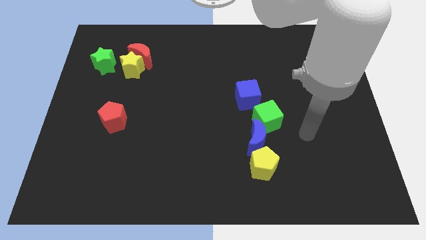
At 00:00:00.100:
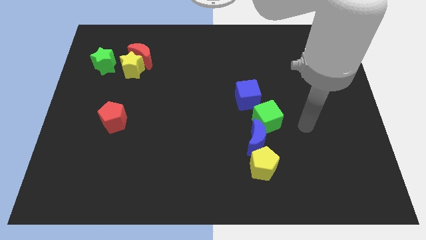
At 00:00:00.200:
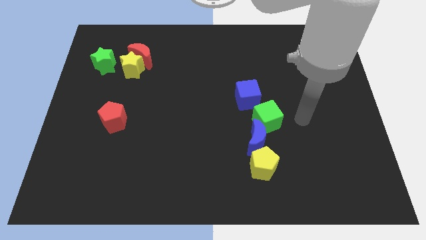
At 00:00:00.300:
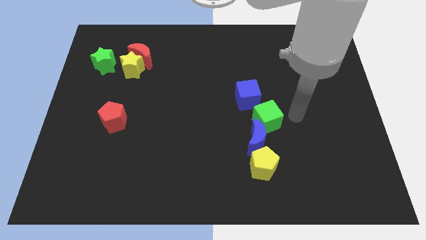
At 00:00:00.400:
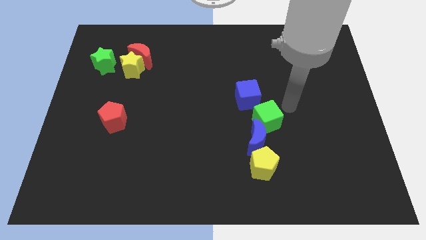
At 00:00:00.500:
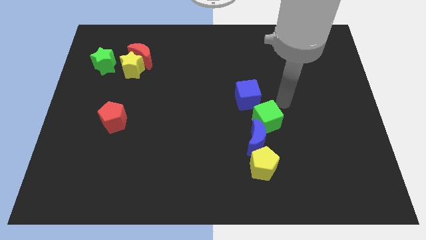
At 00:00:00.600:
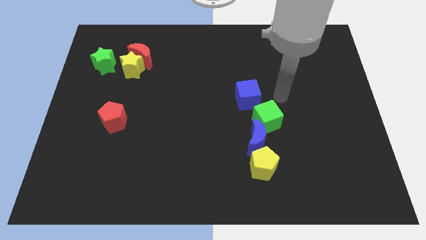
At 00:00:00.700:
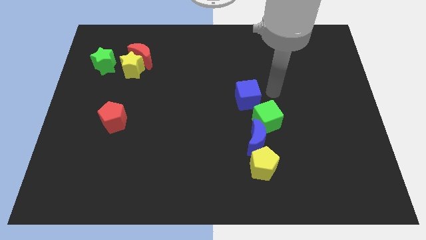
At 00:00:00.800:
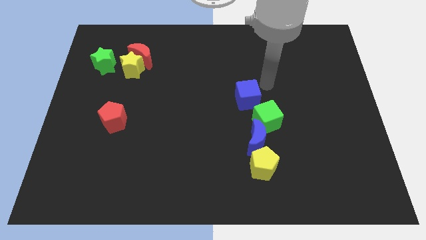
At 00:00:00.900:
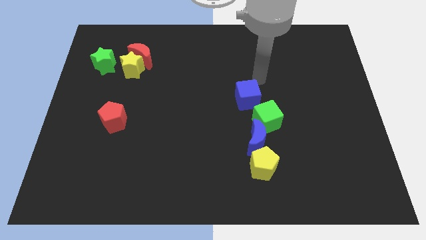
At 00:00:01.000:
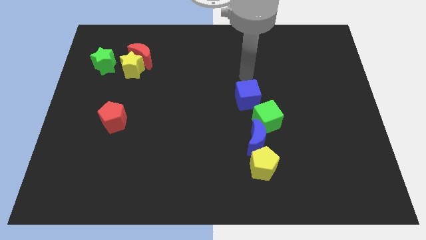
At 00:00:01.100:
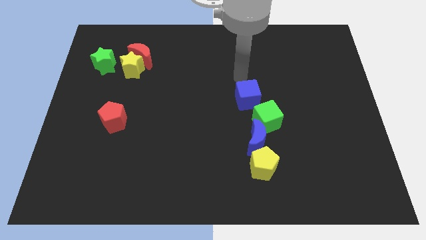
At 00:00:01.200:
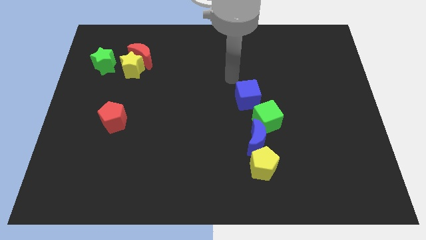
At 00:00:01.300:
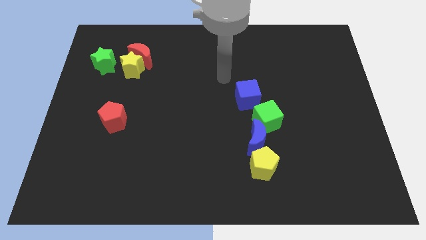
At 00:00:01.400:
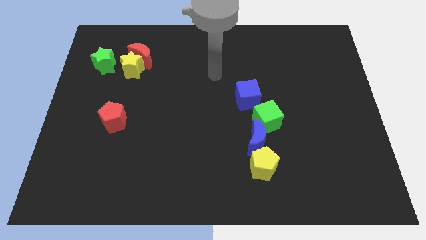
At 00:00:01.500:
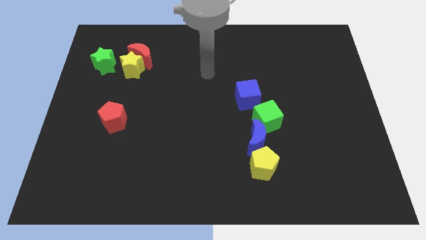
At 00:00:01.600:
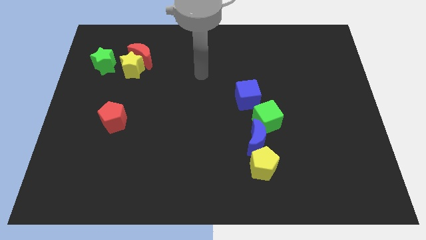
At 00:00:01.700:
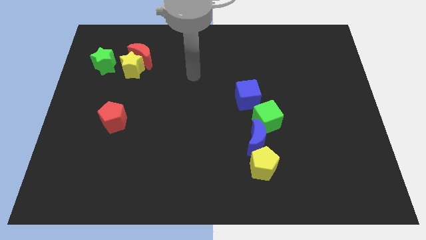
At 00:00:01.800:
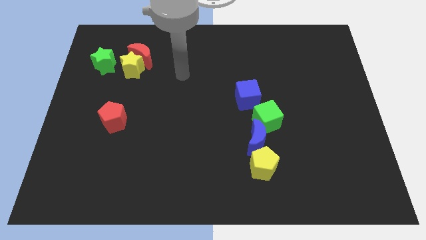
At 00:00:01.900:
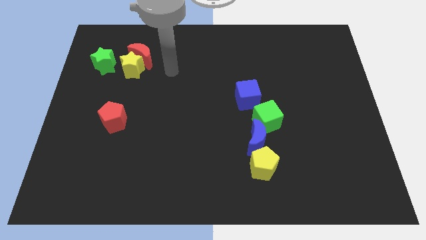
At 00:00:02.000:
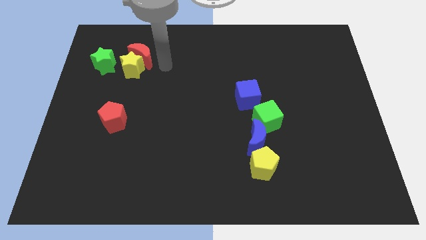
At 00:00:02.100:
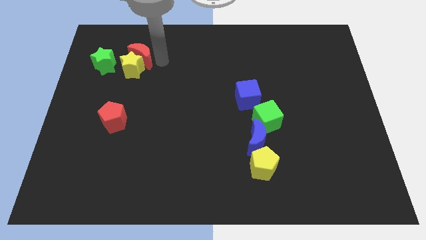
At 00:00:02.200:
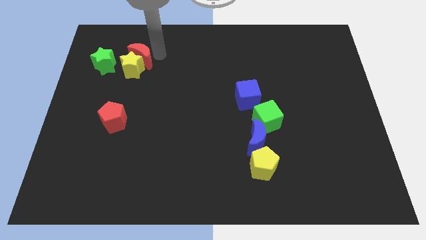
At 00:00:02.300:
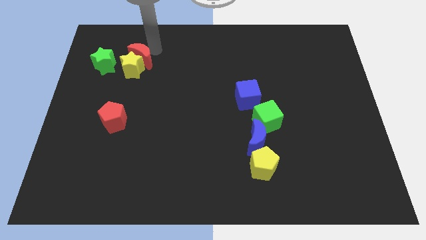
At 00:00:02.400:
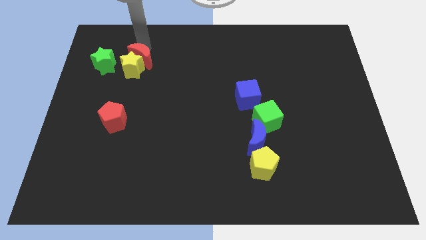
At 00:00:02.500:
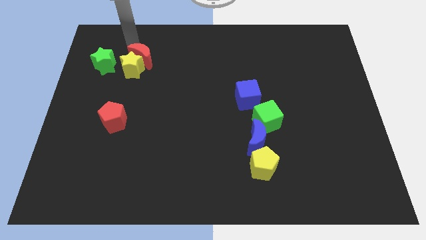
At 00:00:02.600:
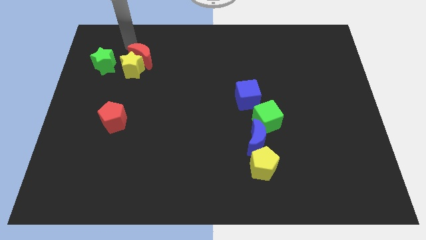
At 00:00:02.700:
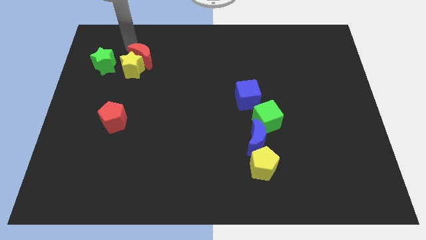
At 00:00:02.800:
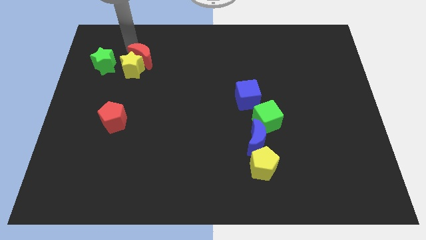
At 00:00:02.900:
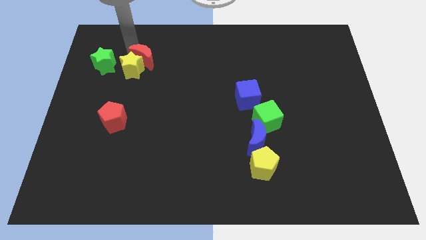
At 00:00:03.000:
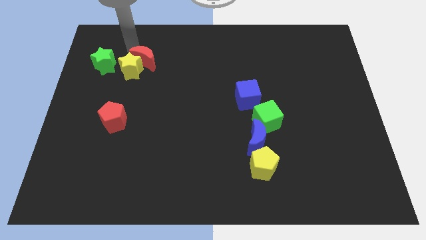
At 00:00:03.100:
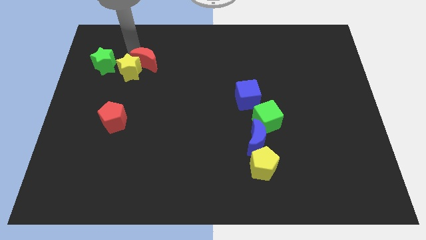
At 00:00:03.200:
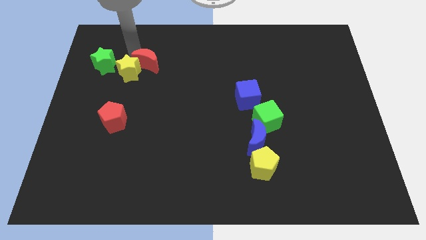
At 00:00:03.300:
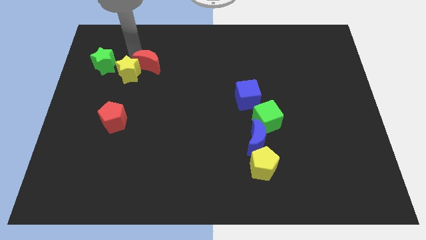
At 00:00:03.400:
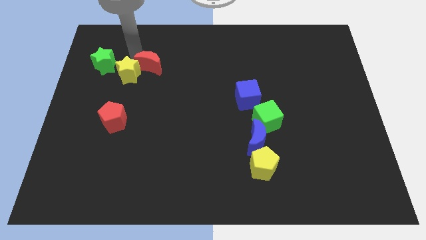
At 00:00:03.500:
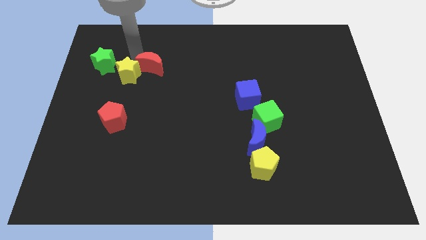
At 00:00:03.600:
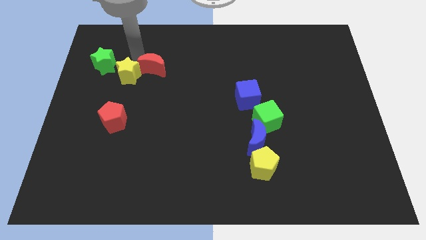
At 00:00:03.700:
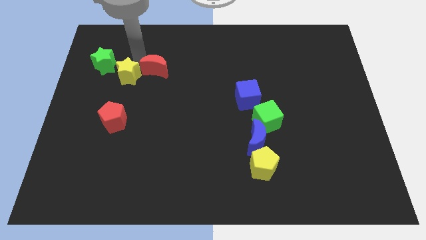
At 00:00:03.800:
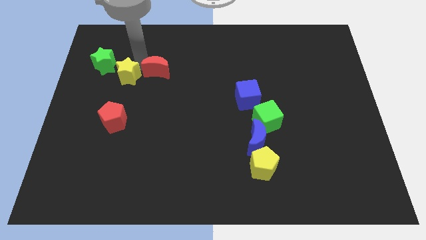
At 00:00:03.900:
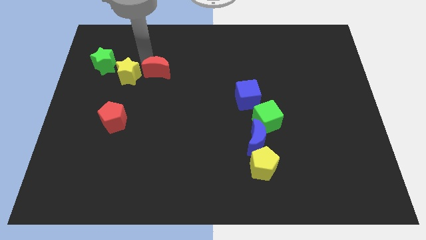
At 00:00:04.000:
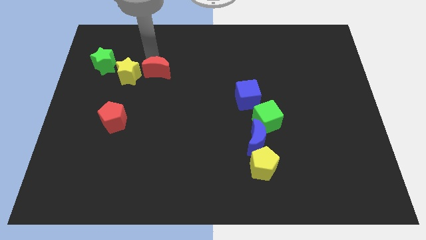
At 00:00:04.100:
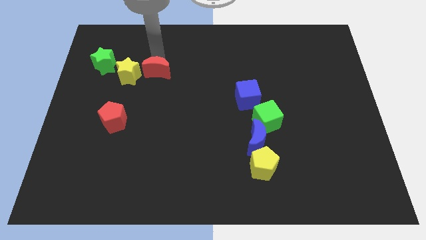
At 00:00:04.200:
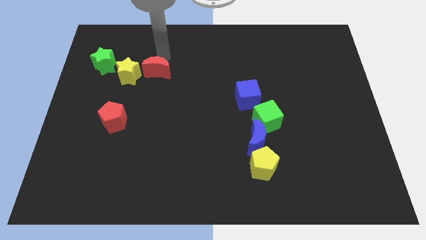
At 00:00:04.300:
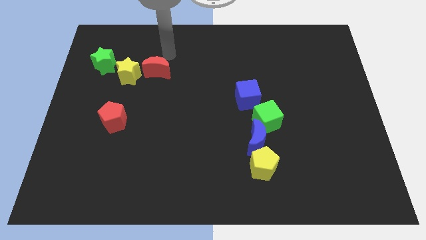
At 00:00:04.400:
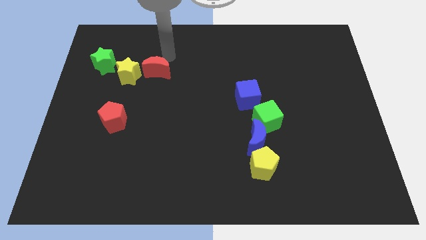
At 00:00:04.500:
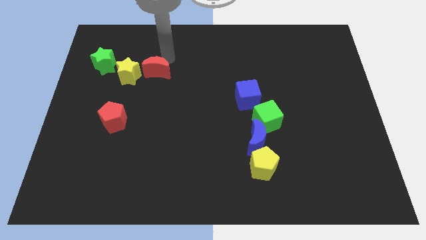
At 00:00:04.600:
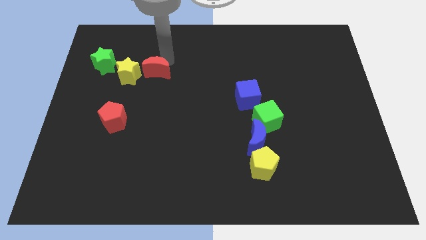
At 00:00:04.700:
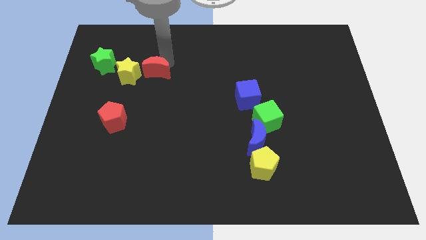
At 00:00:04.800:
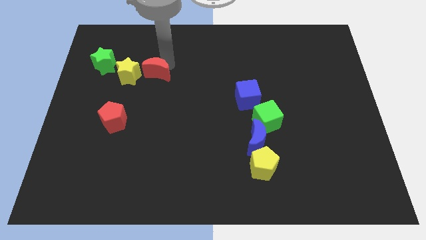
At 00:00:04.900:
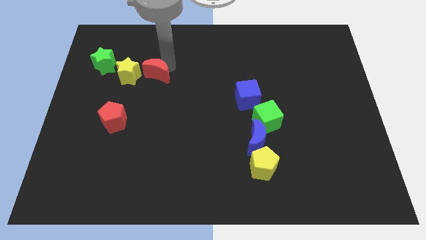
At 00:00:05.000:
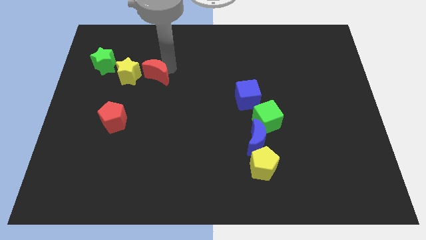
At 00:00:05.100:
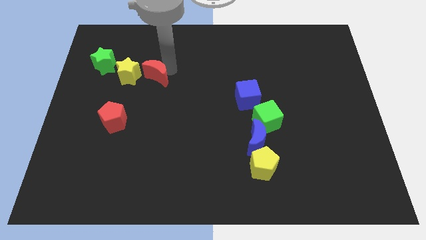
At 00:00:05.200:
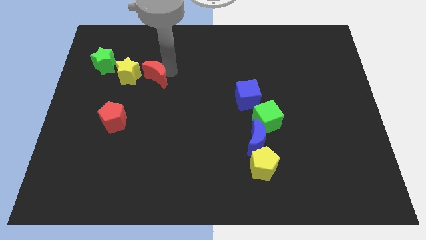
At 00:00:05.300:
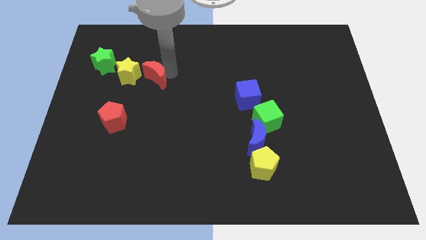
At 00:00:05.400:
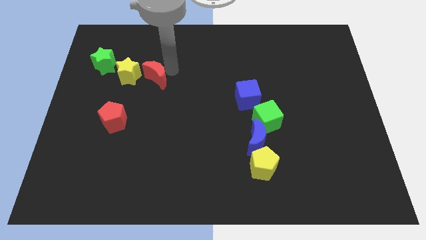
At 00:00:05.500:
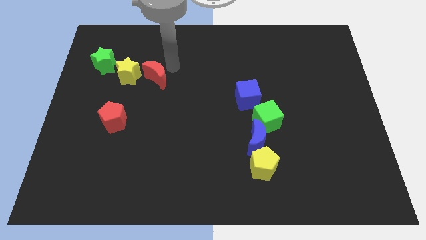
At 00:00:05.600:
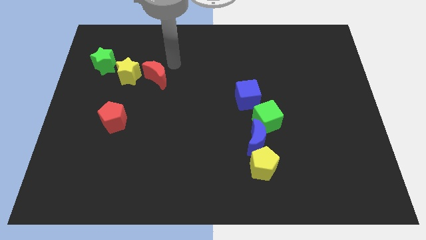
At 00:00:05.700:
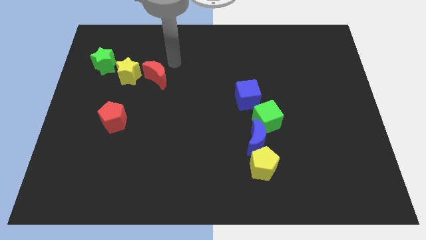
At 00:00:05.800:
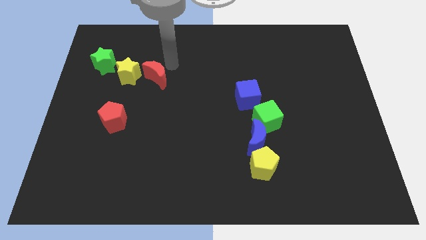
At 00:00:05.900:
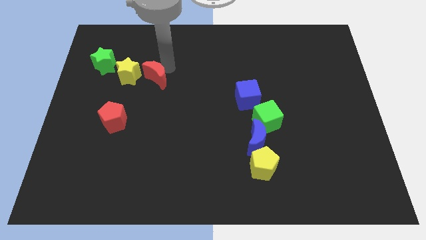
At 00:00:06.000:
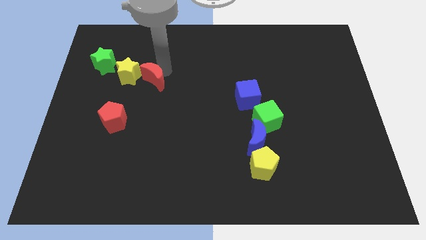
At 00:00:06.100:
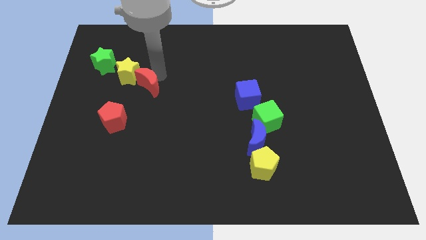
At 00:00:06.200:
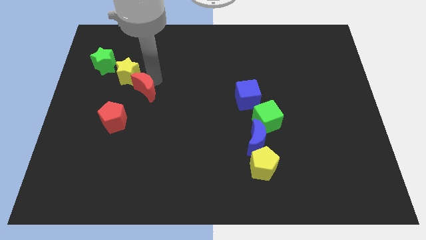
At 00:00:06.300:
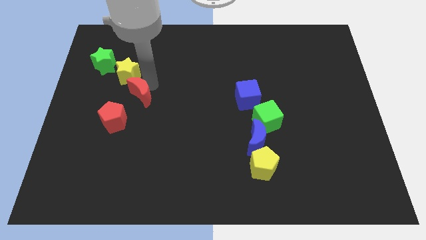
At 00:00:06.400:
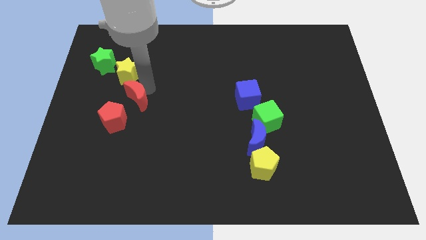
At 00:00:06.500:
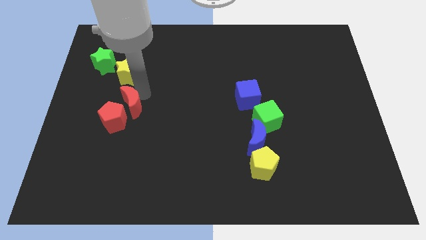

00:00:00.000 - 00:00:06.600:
move the red moon to the red pentagon
